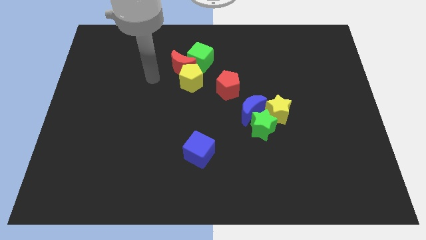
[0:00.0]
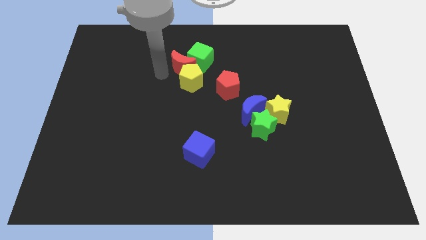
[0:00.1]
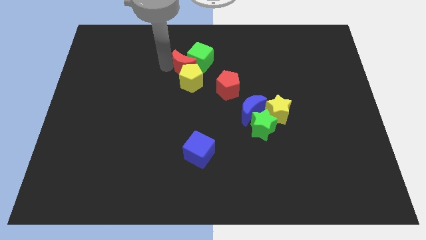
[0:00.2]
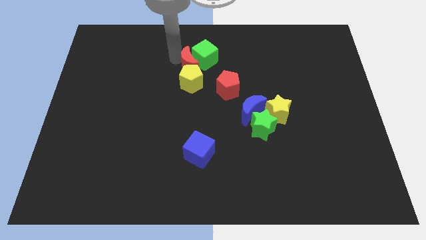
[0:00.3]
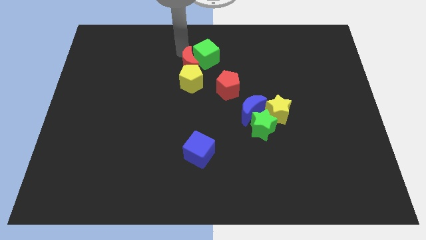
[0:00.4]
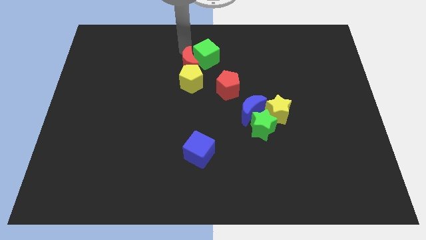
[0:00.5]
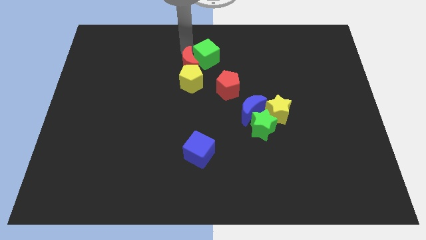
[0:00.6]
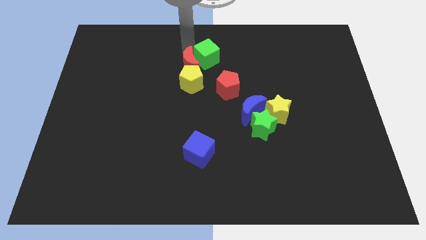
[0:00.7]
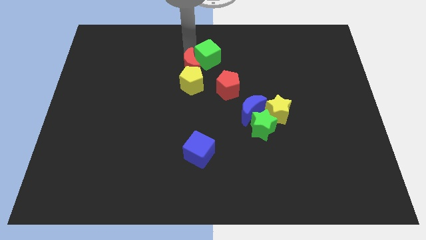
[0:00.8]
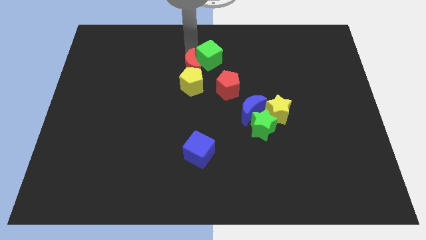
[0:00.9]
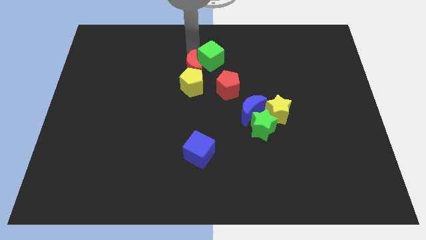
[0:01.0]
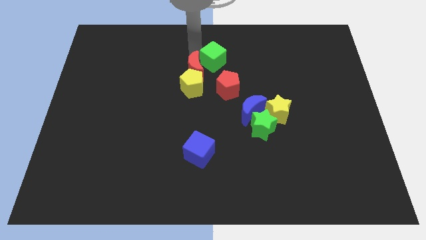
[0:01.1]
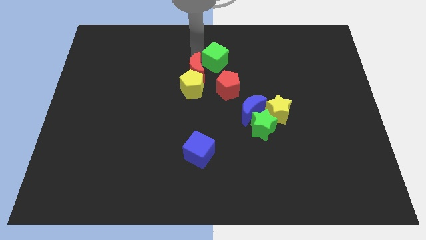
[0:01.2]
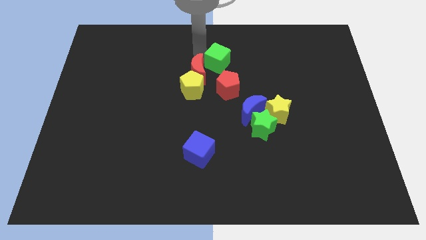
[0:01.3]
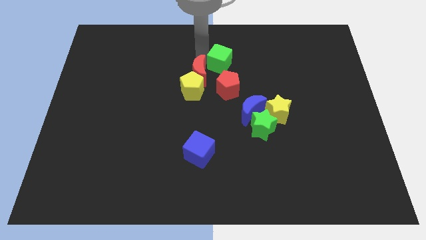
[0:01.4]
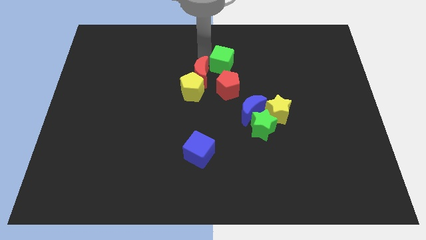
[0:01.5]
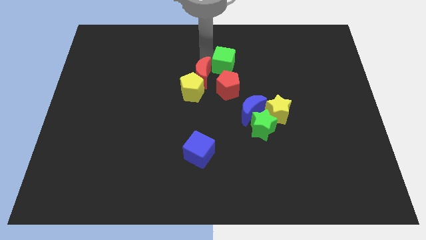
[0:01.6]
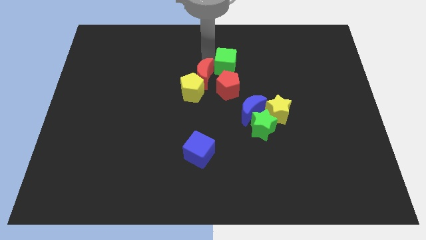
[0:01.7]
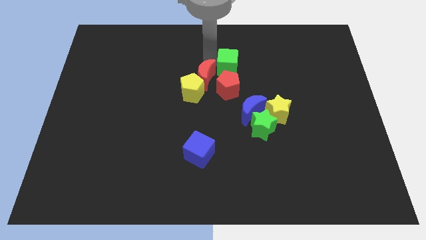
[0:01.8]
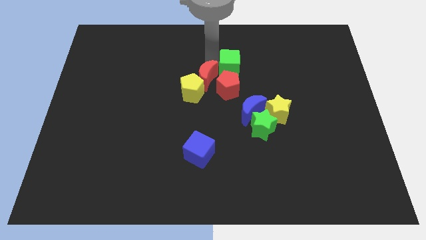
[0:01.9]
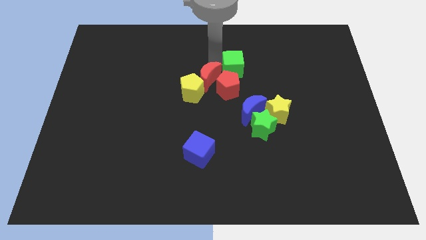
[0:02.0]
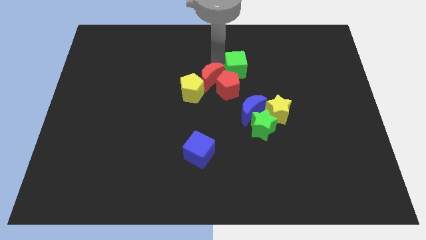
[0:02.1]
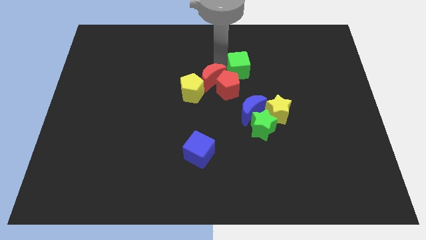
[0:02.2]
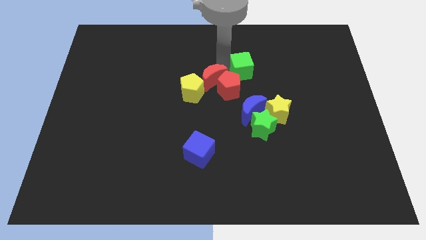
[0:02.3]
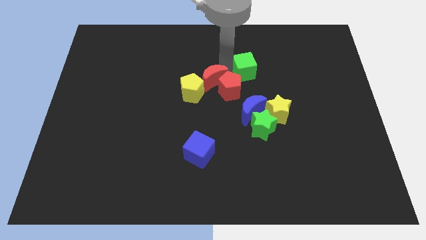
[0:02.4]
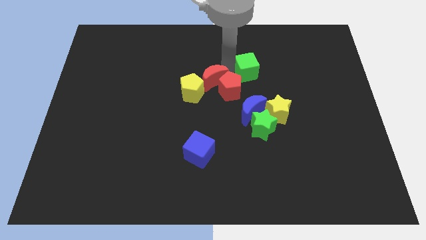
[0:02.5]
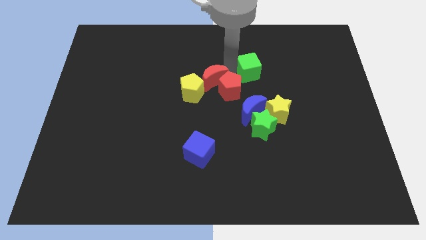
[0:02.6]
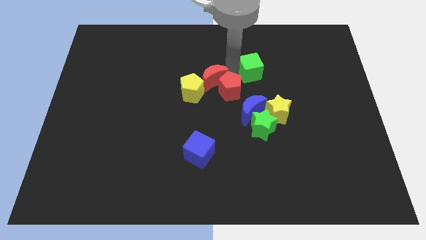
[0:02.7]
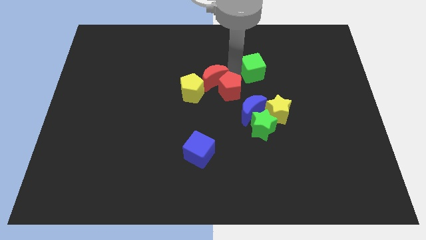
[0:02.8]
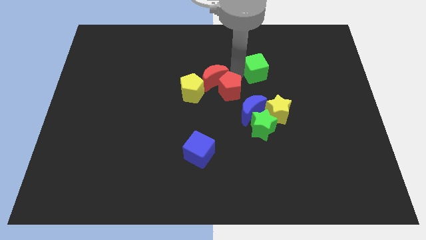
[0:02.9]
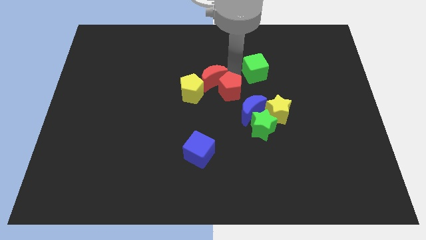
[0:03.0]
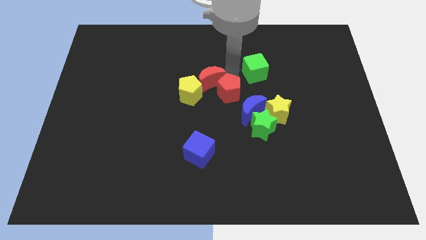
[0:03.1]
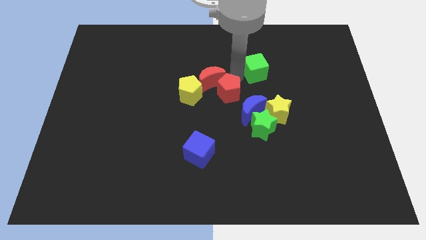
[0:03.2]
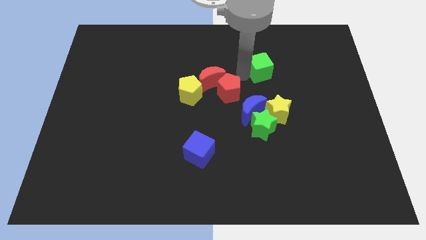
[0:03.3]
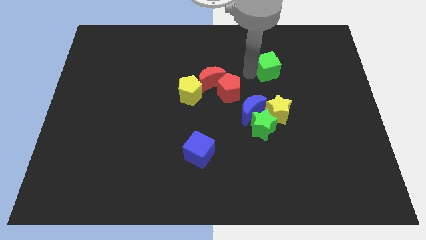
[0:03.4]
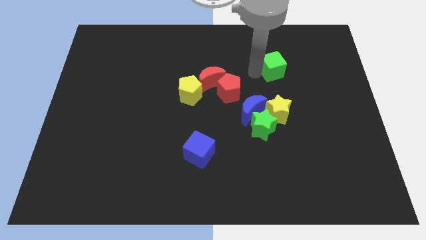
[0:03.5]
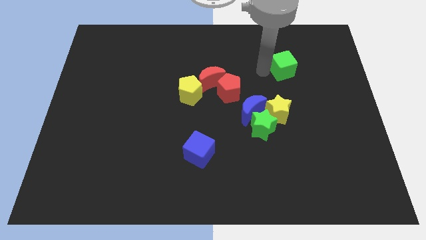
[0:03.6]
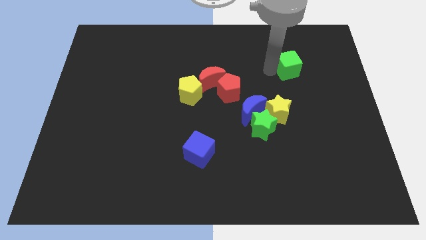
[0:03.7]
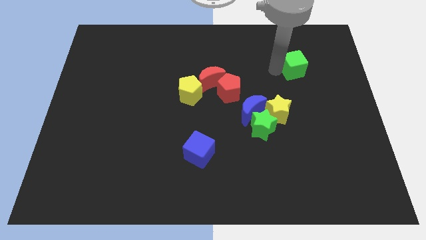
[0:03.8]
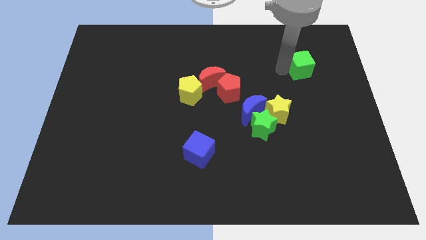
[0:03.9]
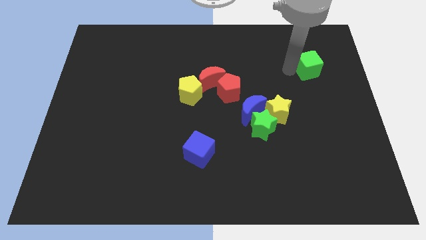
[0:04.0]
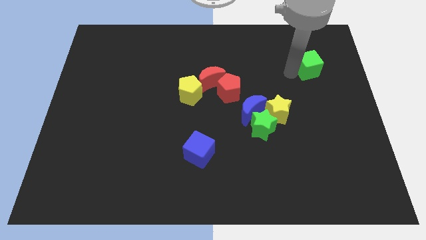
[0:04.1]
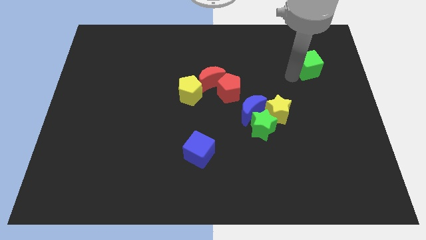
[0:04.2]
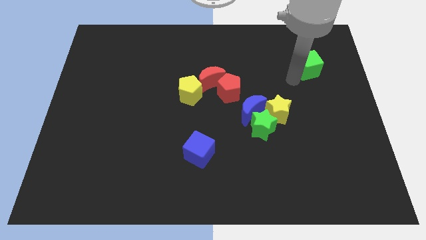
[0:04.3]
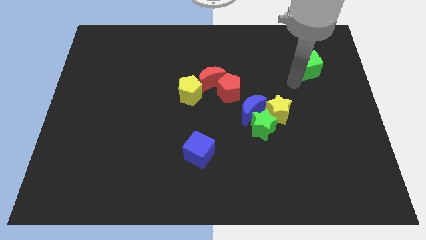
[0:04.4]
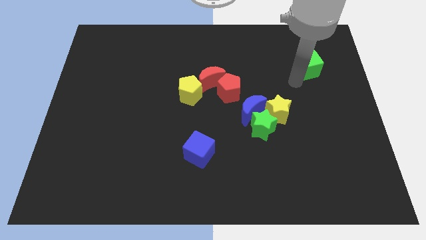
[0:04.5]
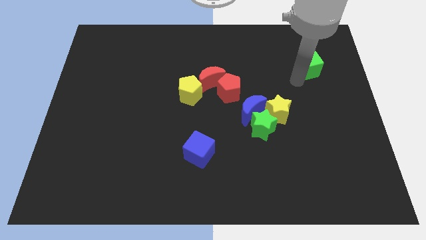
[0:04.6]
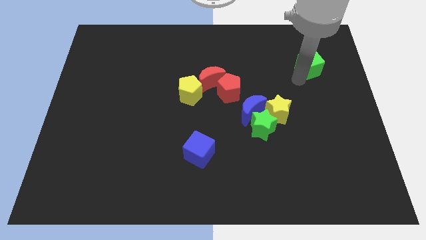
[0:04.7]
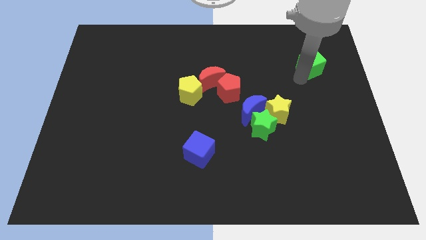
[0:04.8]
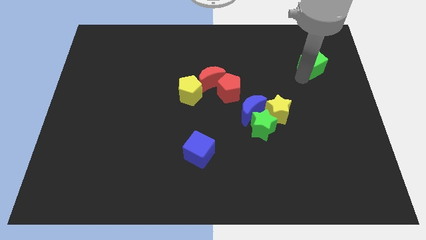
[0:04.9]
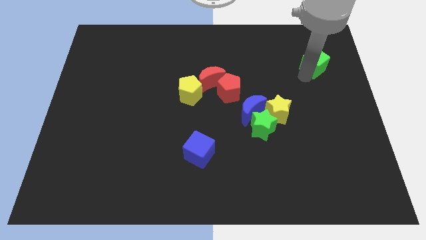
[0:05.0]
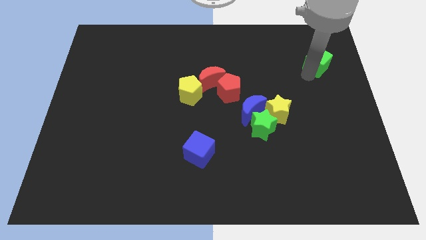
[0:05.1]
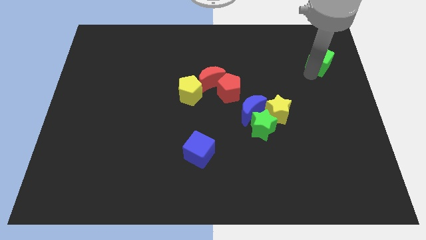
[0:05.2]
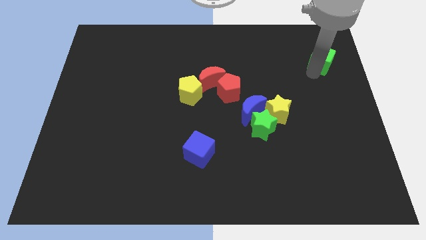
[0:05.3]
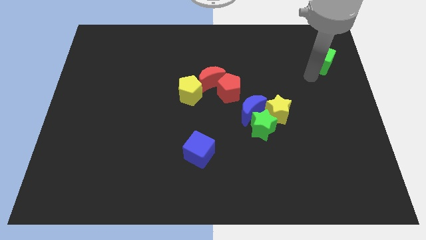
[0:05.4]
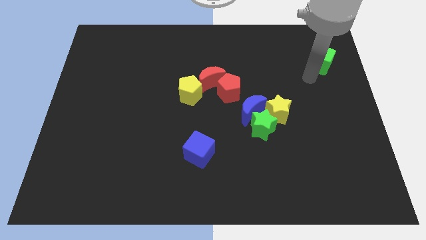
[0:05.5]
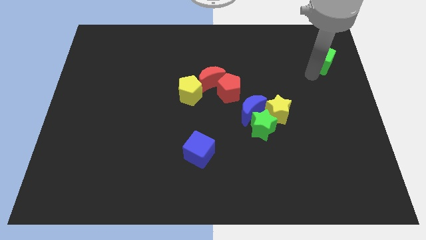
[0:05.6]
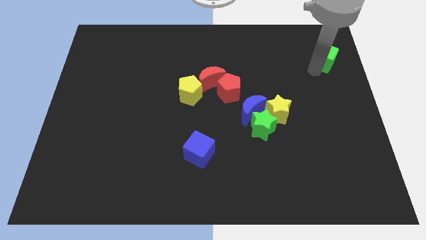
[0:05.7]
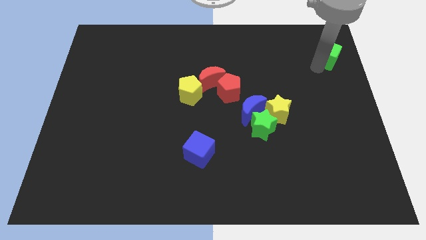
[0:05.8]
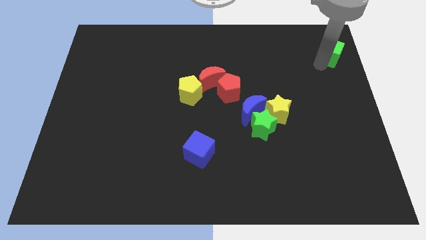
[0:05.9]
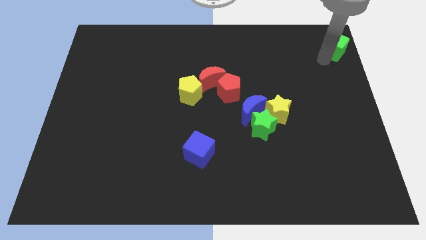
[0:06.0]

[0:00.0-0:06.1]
slide the green cube to the upper right corner

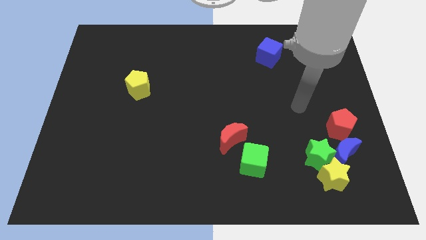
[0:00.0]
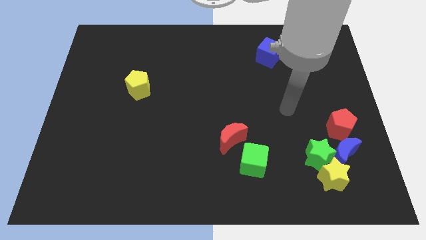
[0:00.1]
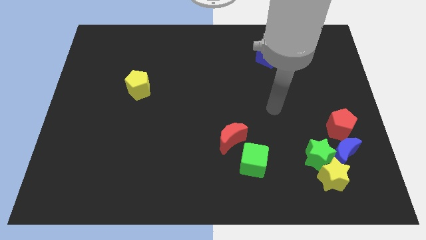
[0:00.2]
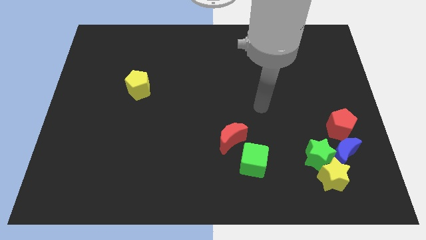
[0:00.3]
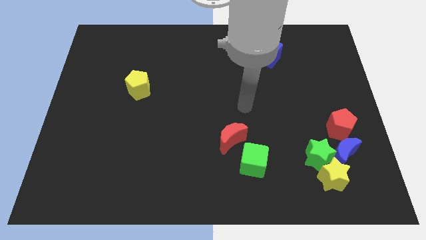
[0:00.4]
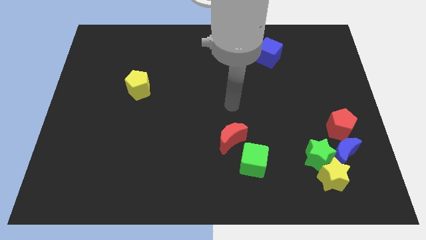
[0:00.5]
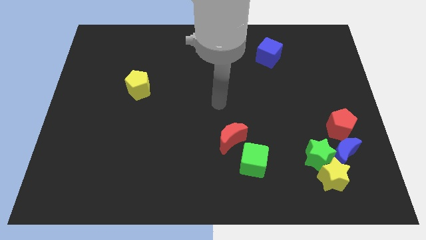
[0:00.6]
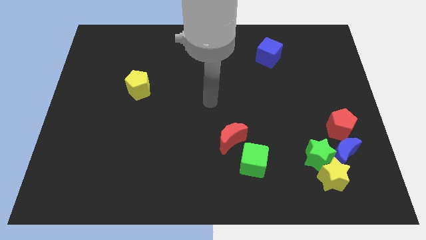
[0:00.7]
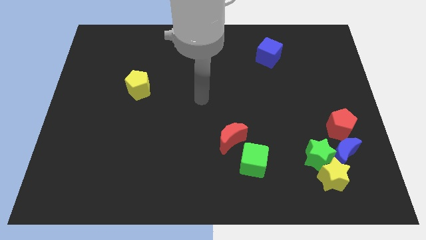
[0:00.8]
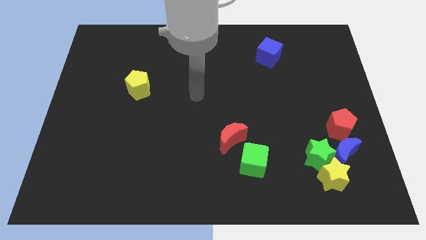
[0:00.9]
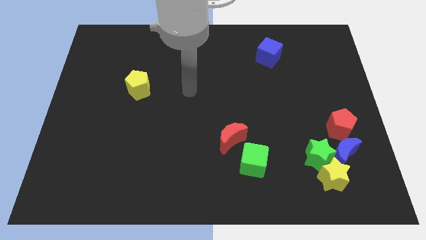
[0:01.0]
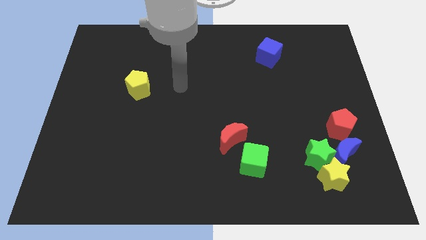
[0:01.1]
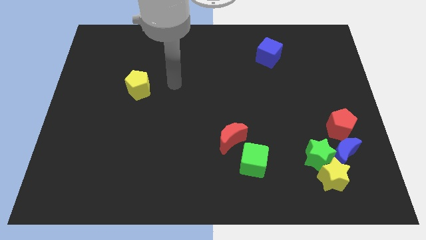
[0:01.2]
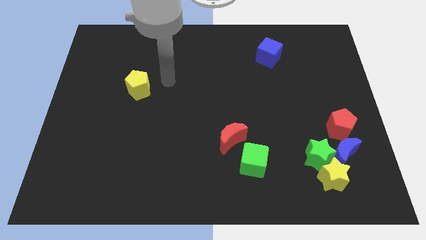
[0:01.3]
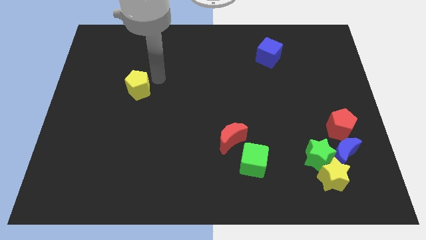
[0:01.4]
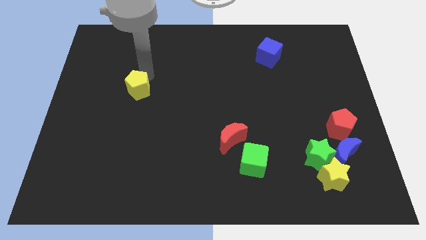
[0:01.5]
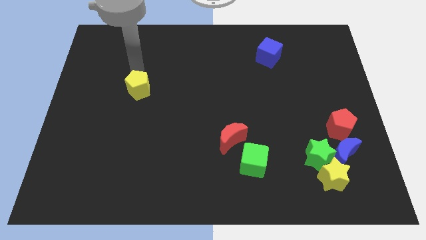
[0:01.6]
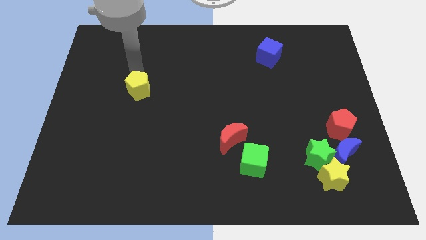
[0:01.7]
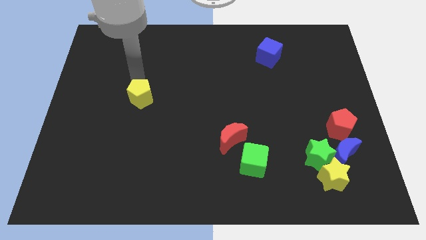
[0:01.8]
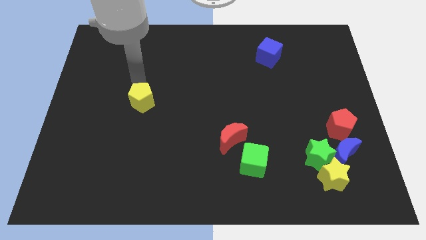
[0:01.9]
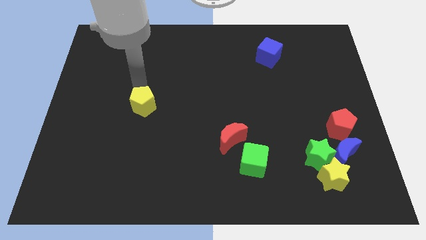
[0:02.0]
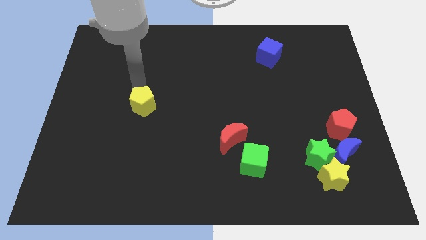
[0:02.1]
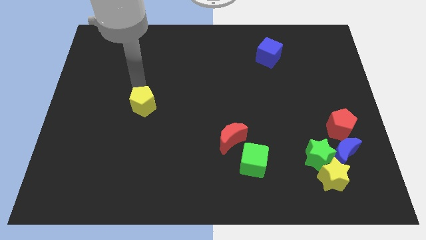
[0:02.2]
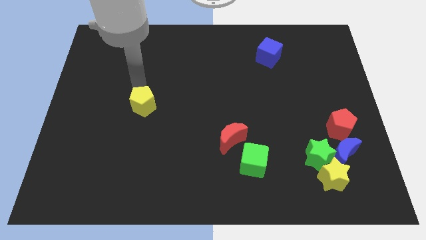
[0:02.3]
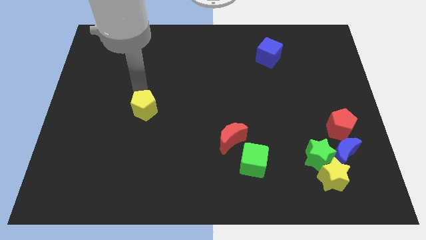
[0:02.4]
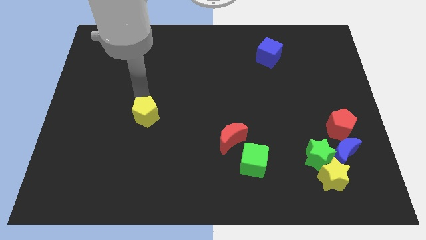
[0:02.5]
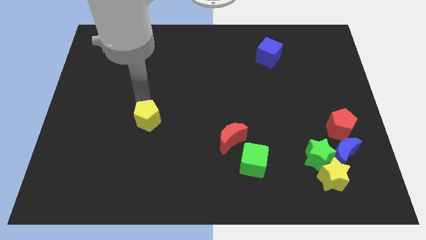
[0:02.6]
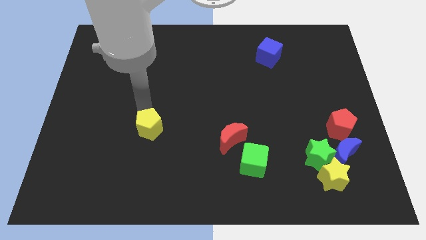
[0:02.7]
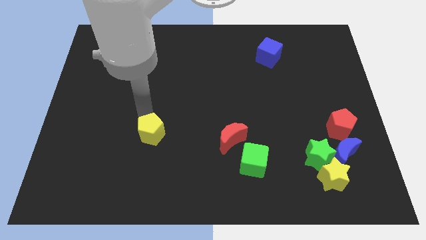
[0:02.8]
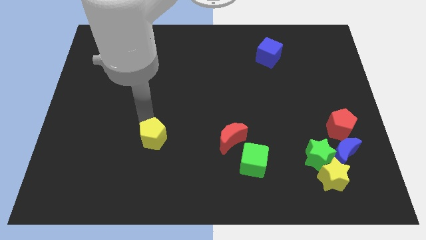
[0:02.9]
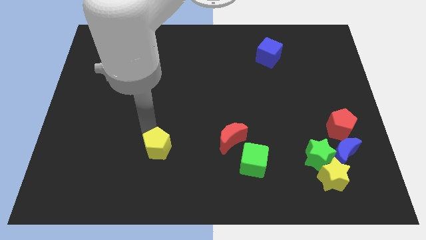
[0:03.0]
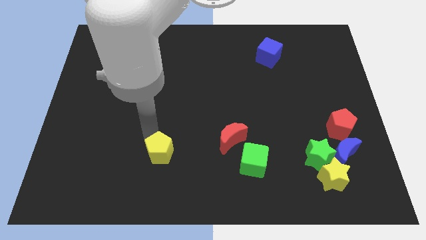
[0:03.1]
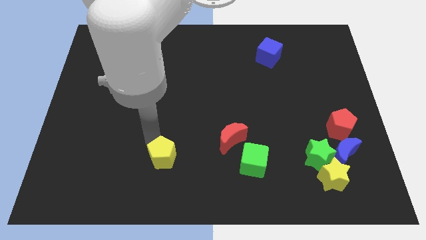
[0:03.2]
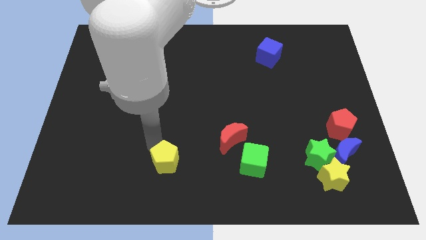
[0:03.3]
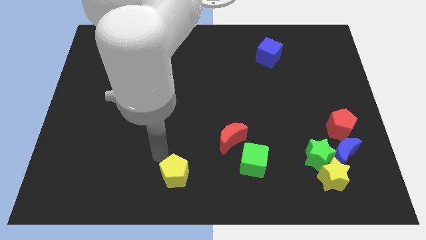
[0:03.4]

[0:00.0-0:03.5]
push the yellow pentagon to the bottom side
